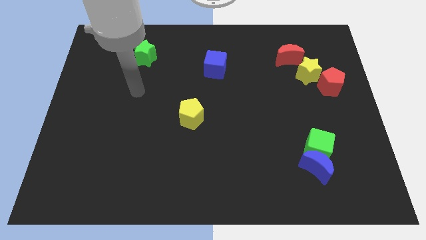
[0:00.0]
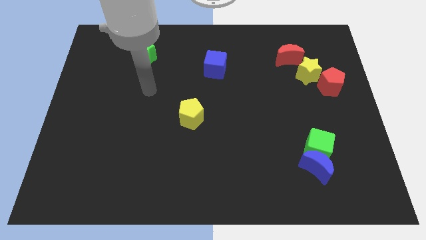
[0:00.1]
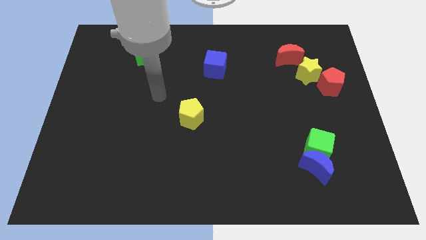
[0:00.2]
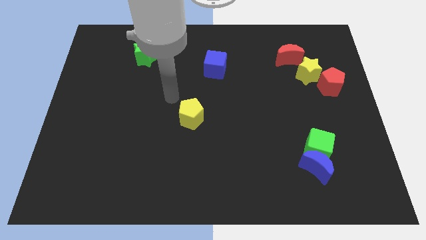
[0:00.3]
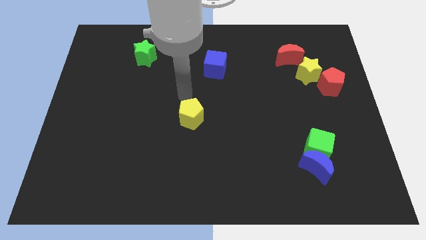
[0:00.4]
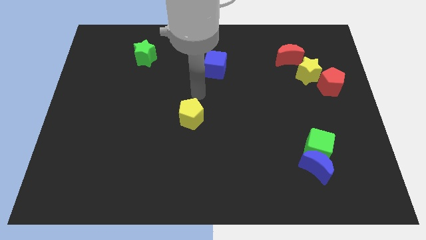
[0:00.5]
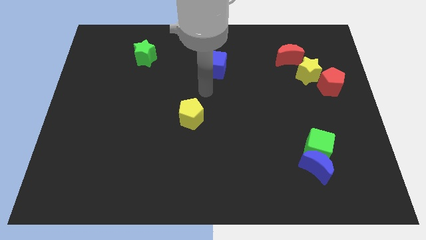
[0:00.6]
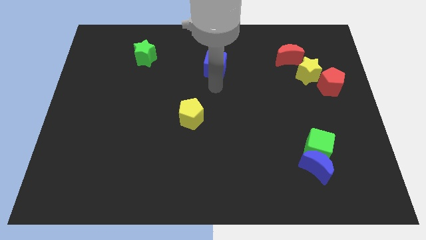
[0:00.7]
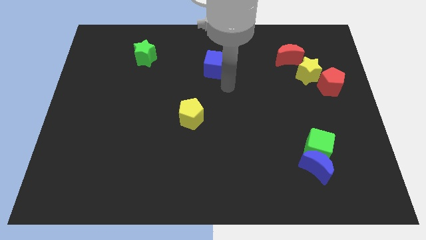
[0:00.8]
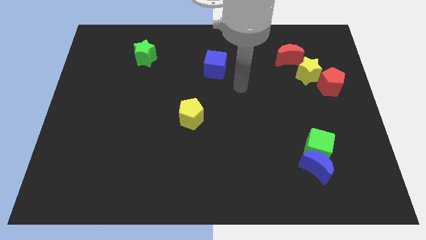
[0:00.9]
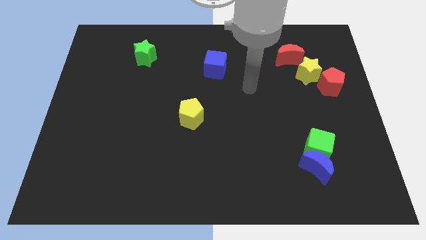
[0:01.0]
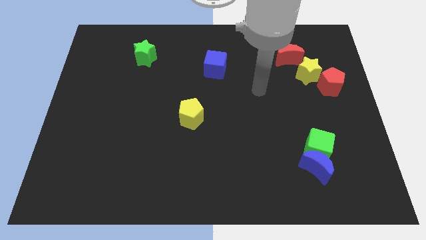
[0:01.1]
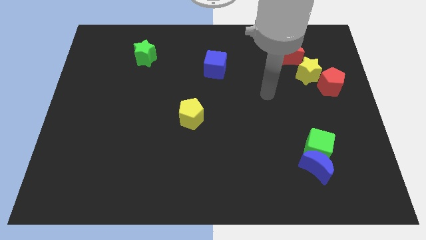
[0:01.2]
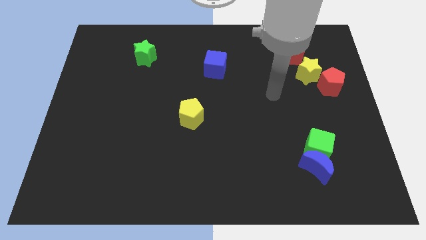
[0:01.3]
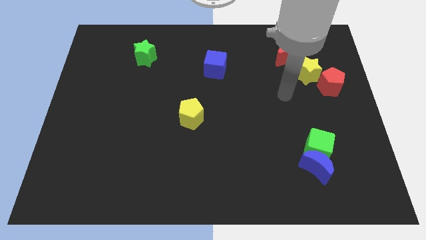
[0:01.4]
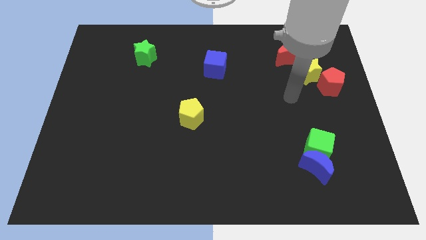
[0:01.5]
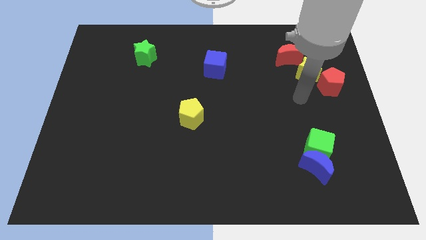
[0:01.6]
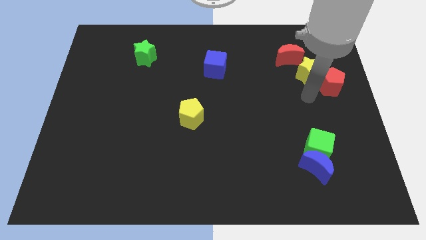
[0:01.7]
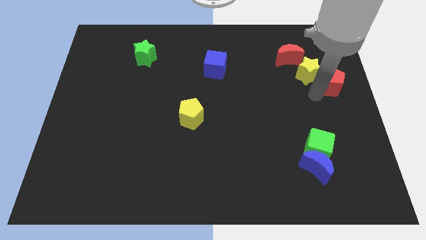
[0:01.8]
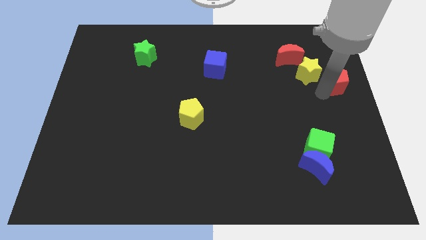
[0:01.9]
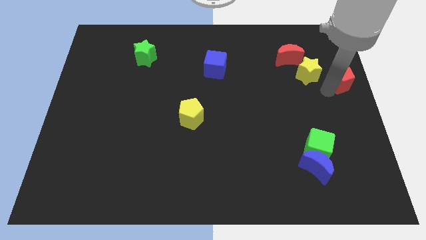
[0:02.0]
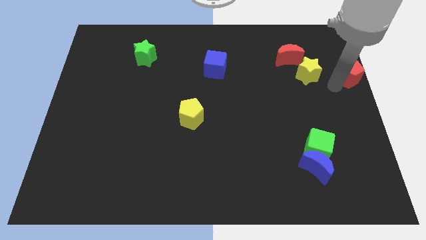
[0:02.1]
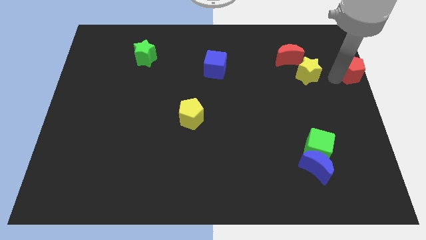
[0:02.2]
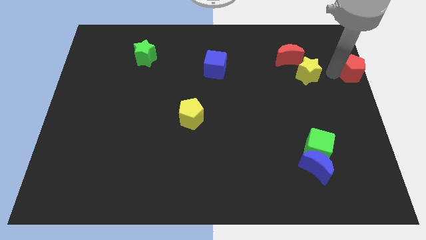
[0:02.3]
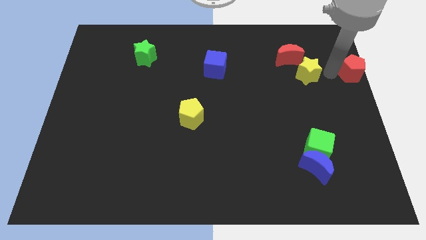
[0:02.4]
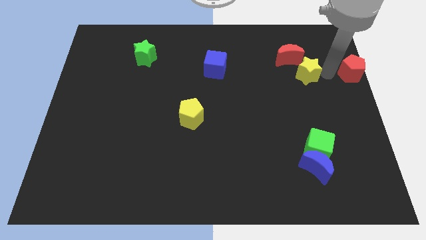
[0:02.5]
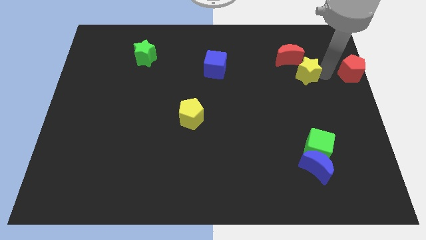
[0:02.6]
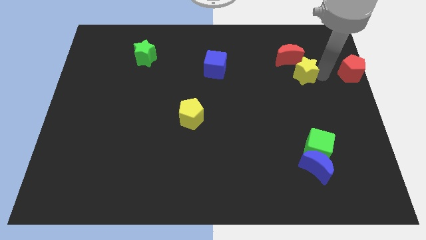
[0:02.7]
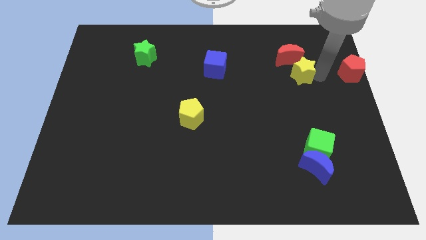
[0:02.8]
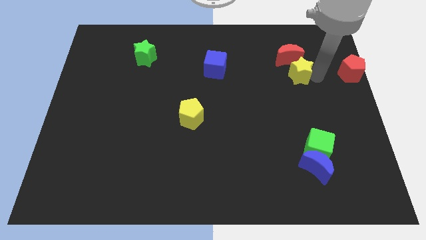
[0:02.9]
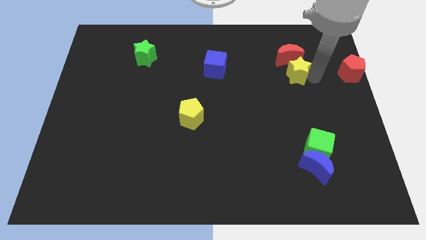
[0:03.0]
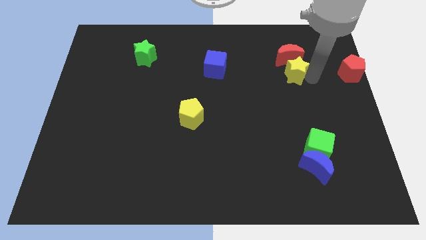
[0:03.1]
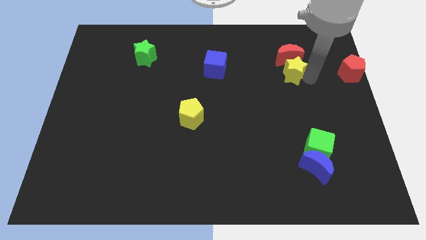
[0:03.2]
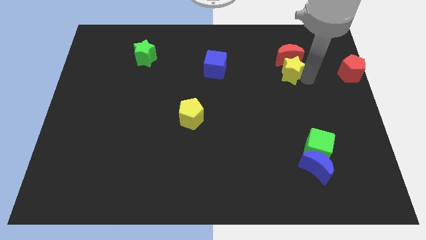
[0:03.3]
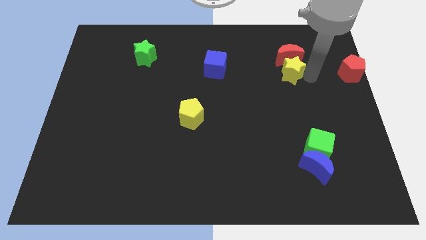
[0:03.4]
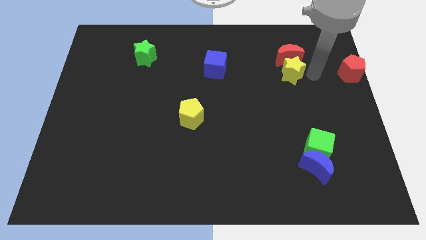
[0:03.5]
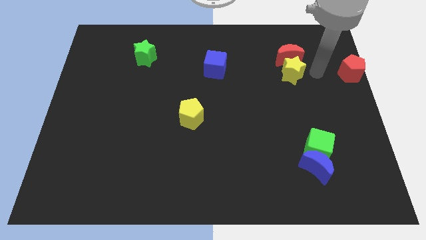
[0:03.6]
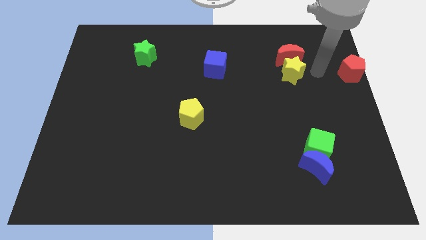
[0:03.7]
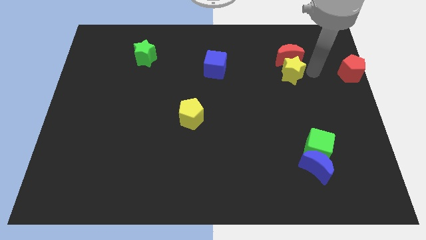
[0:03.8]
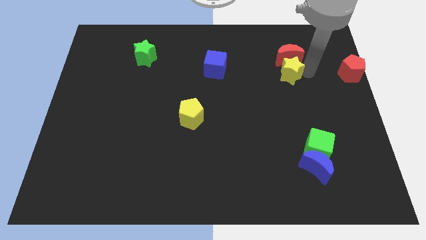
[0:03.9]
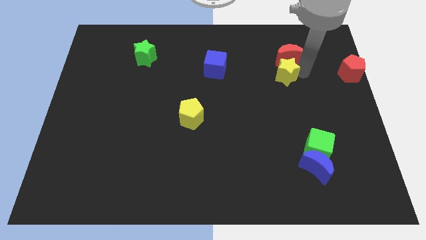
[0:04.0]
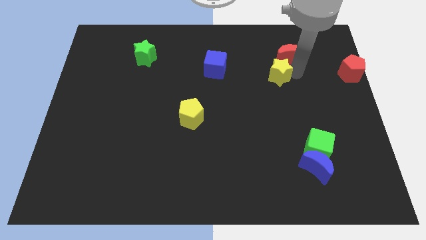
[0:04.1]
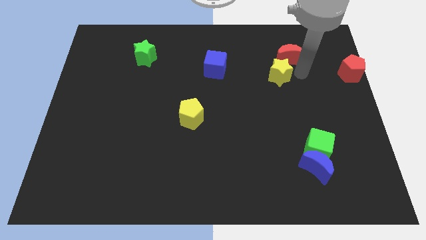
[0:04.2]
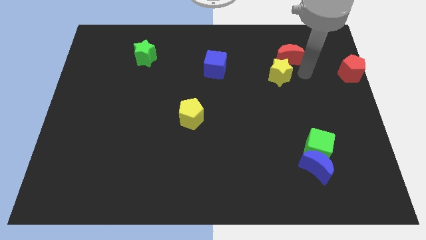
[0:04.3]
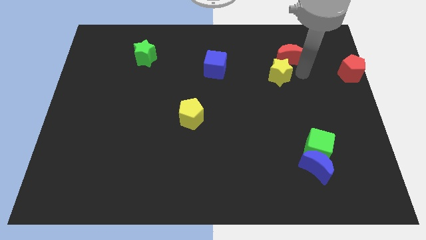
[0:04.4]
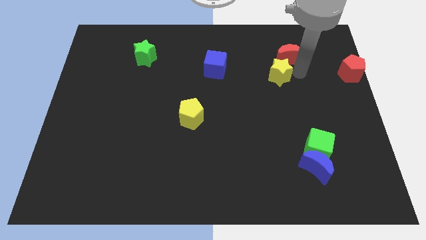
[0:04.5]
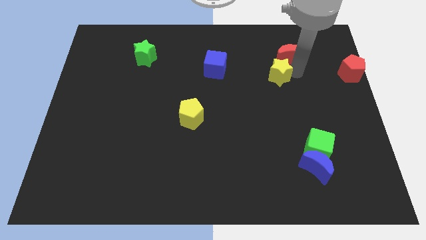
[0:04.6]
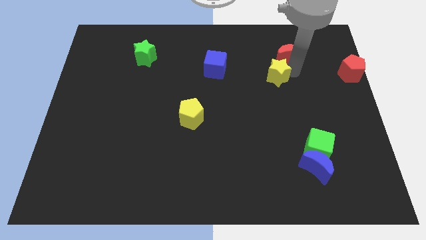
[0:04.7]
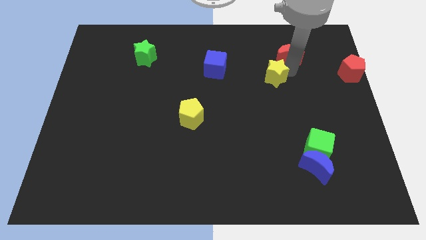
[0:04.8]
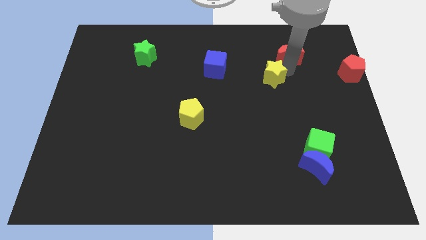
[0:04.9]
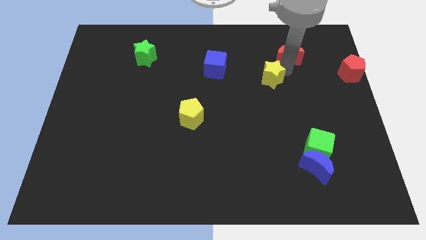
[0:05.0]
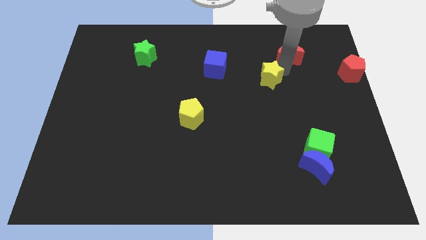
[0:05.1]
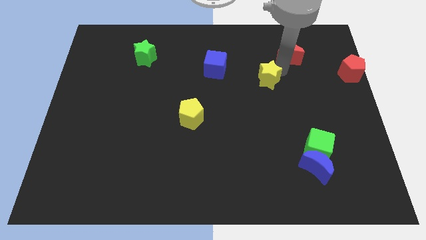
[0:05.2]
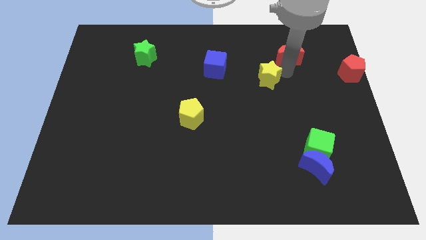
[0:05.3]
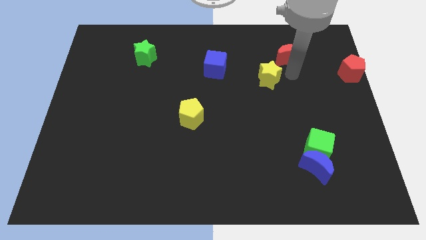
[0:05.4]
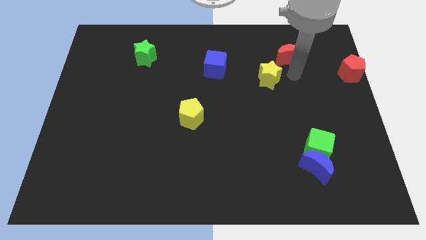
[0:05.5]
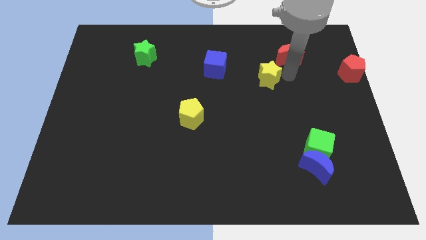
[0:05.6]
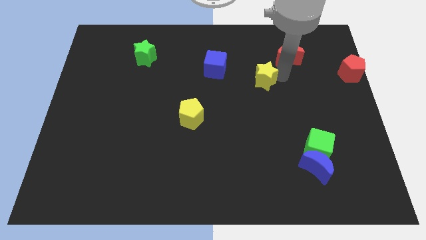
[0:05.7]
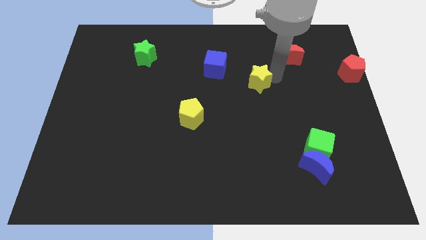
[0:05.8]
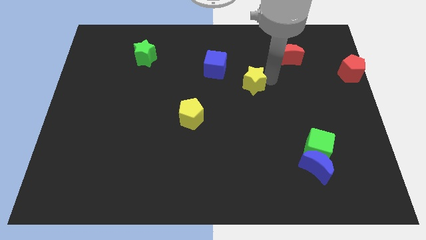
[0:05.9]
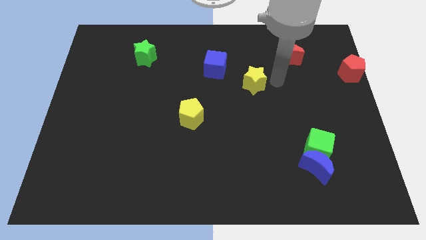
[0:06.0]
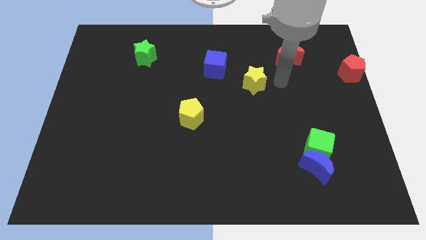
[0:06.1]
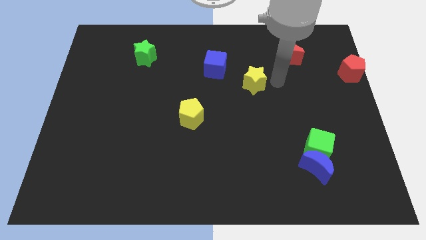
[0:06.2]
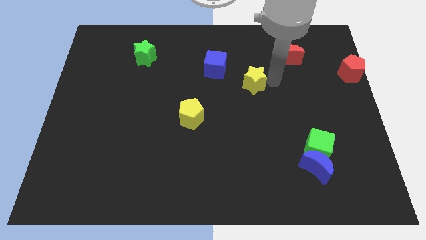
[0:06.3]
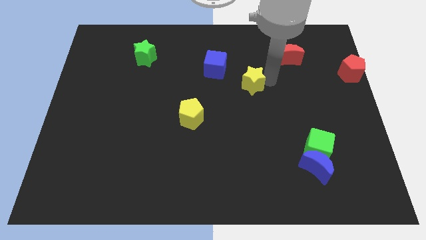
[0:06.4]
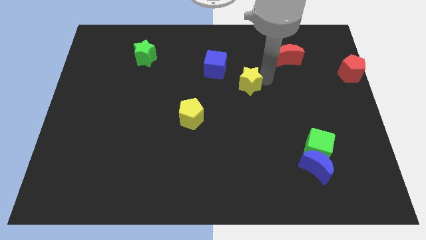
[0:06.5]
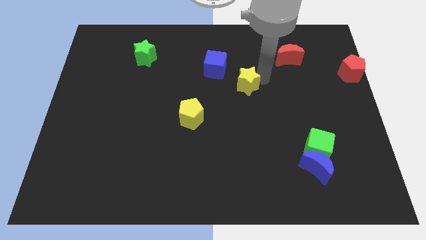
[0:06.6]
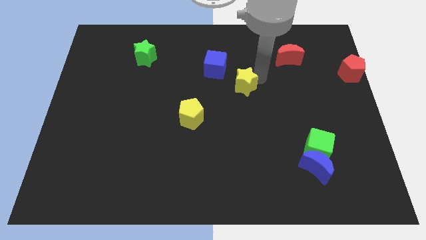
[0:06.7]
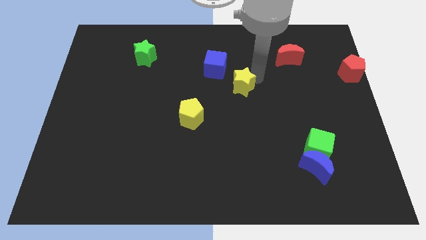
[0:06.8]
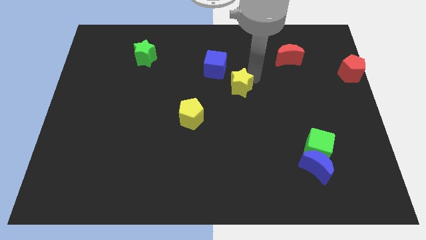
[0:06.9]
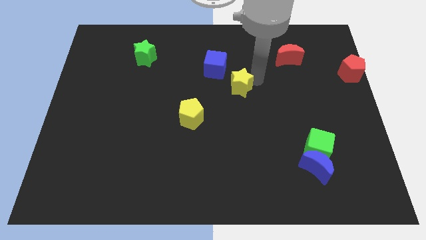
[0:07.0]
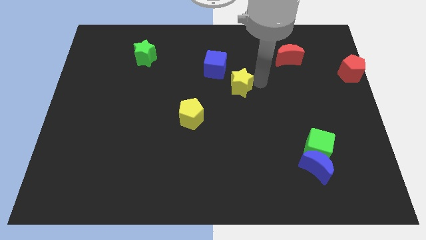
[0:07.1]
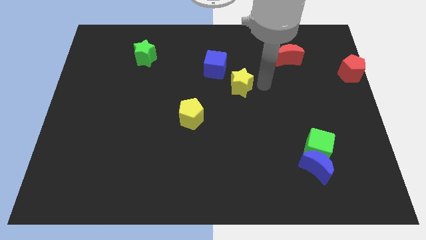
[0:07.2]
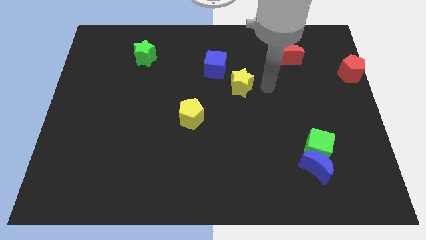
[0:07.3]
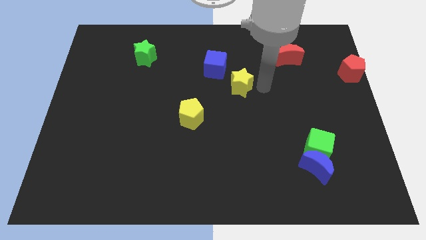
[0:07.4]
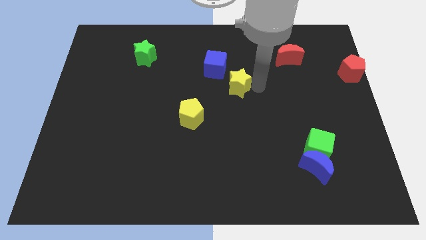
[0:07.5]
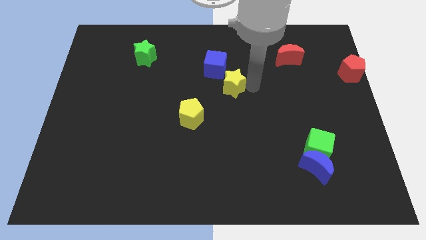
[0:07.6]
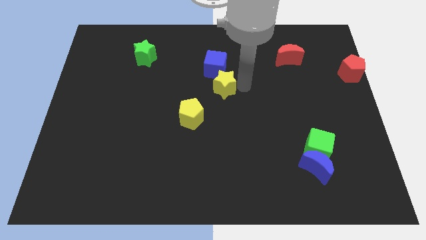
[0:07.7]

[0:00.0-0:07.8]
move the yellow star left

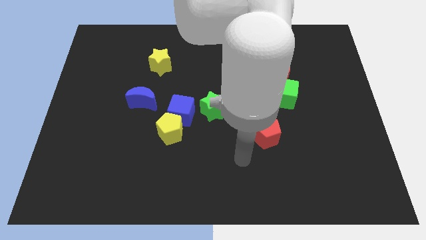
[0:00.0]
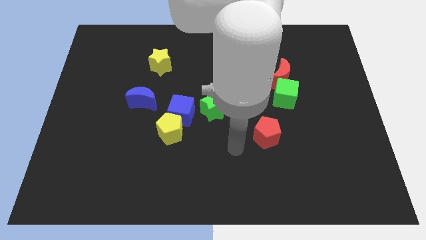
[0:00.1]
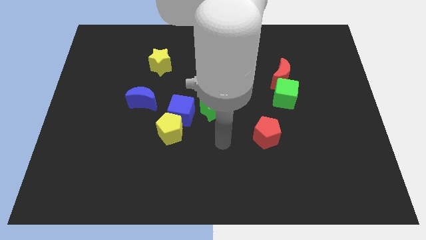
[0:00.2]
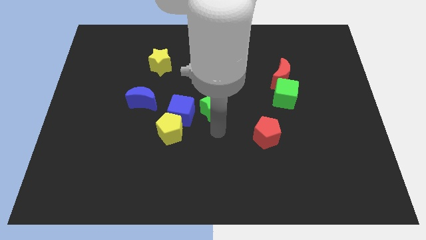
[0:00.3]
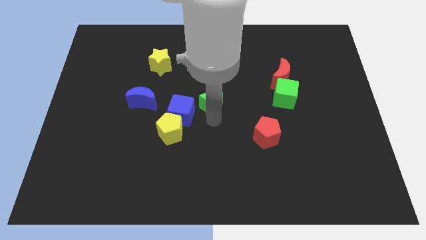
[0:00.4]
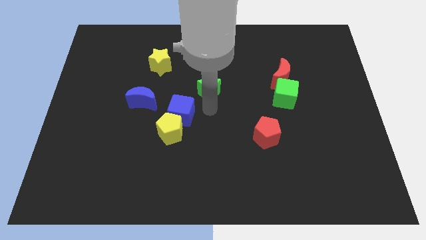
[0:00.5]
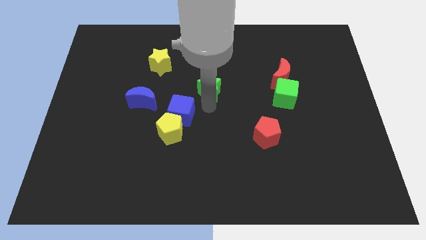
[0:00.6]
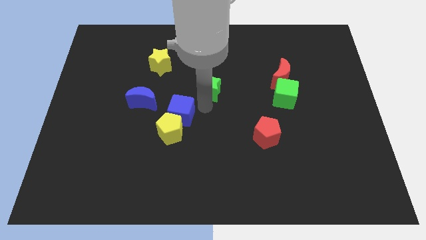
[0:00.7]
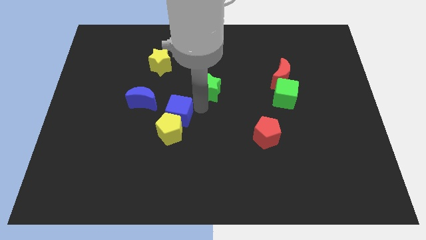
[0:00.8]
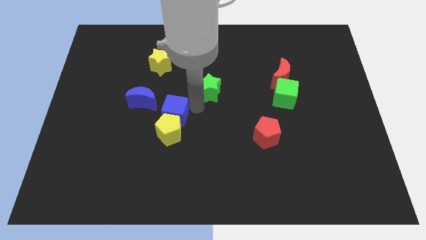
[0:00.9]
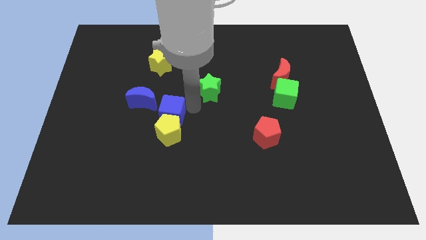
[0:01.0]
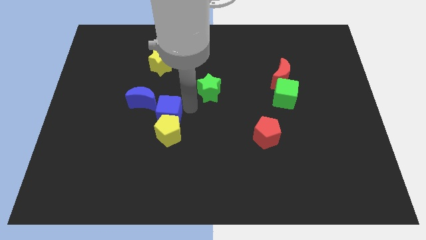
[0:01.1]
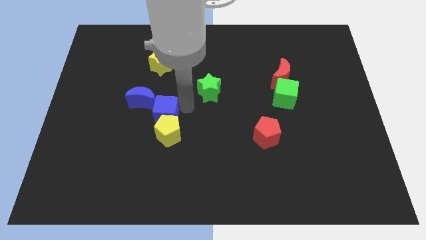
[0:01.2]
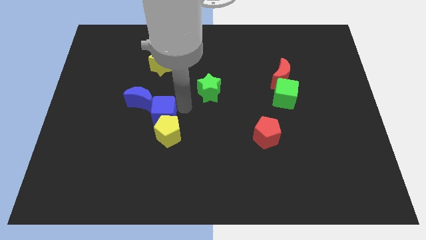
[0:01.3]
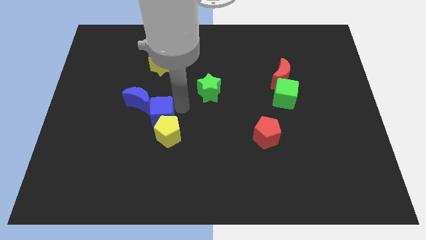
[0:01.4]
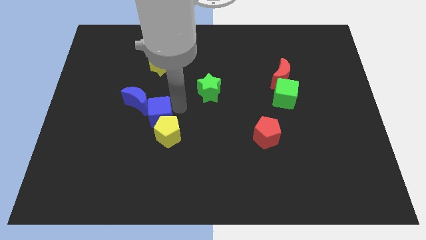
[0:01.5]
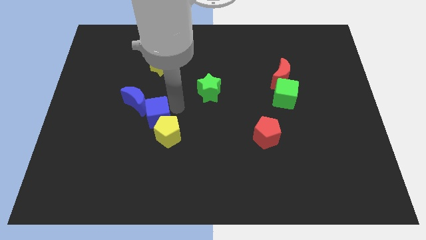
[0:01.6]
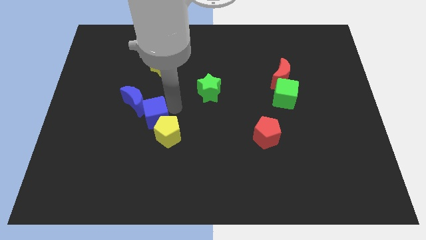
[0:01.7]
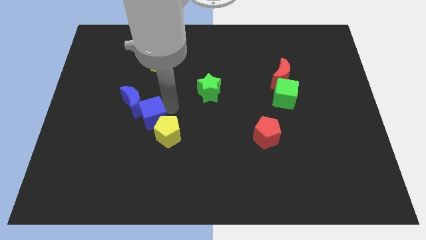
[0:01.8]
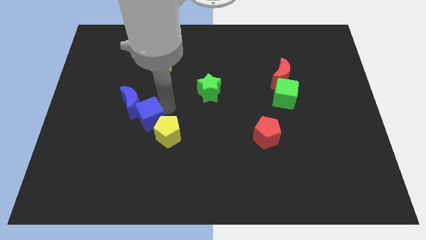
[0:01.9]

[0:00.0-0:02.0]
slightly push the blue cube to the left
